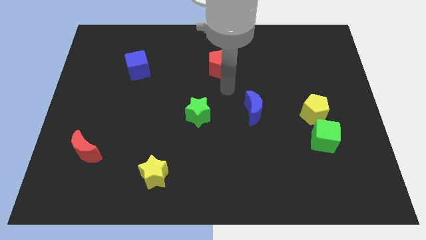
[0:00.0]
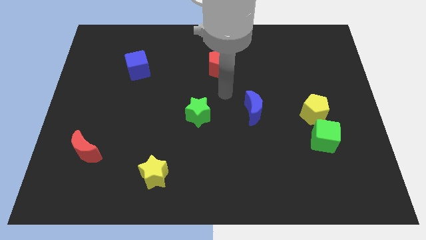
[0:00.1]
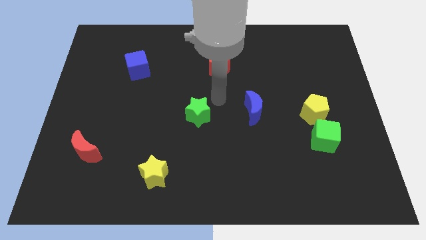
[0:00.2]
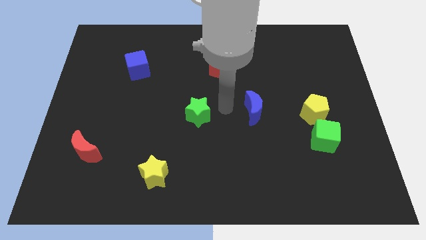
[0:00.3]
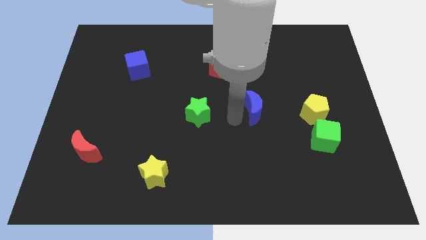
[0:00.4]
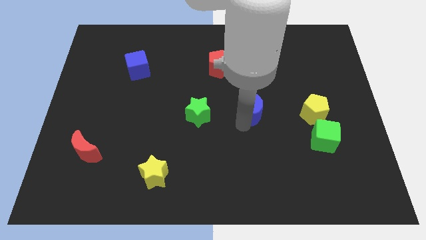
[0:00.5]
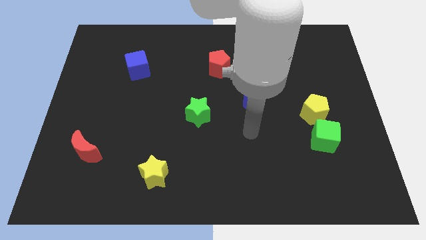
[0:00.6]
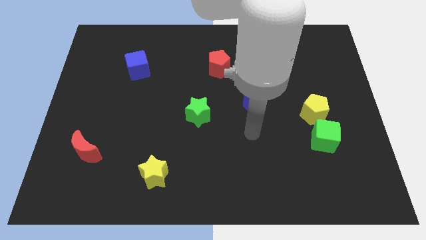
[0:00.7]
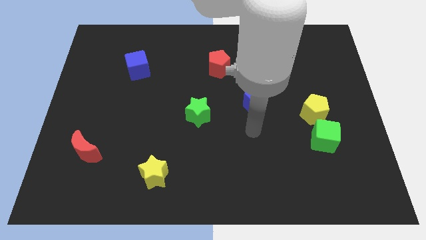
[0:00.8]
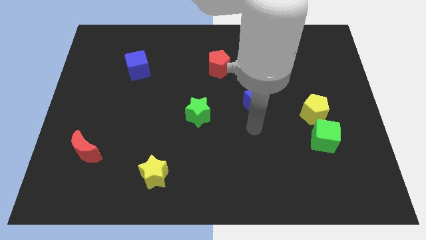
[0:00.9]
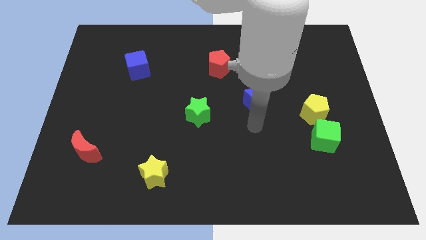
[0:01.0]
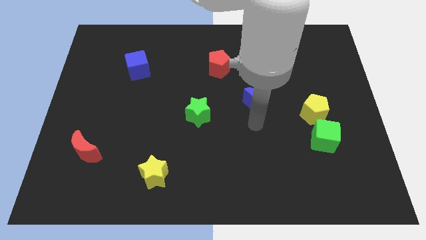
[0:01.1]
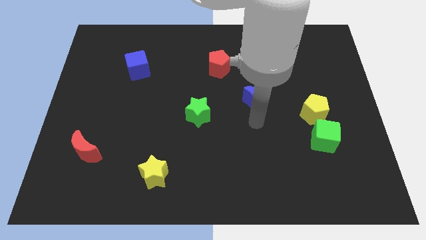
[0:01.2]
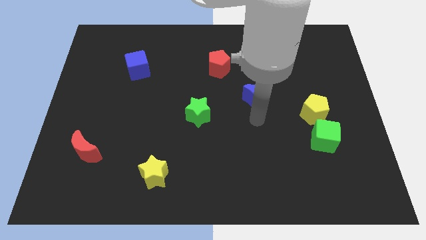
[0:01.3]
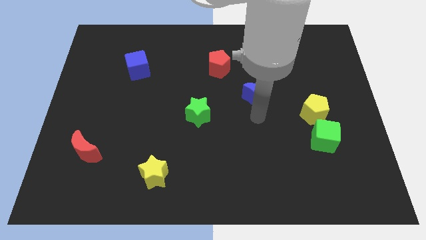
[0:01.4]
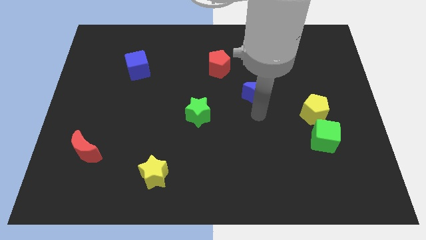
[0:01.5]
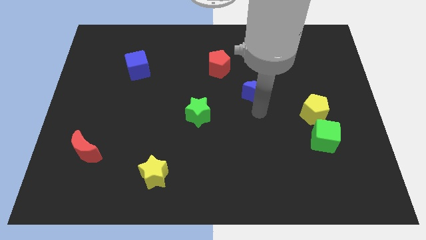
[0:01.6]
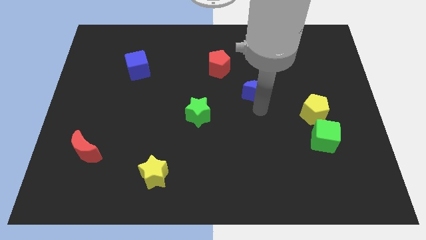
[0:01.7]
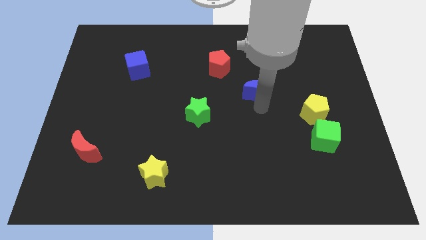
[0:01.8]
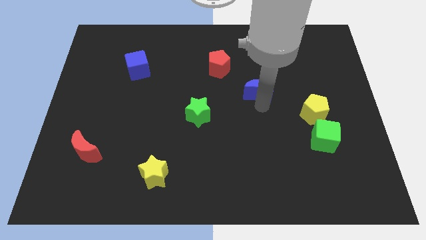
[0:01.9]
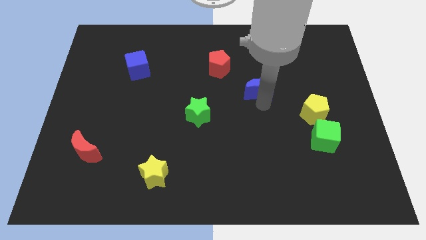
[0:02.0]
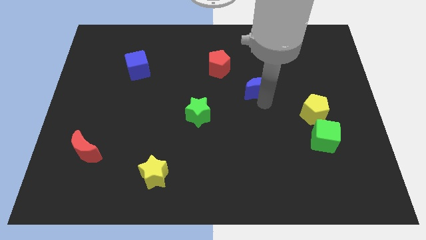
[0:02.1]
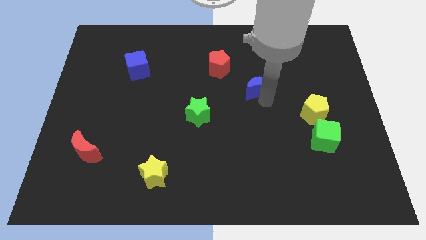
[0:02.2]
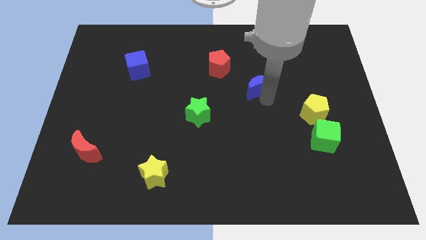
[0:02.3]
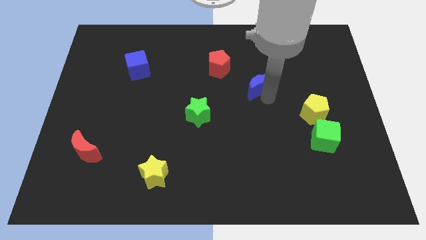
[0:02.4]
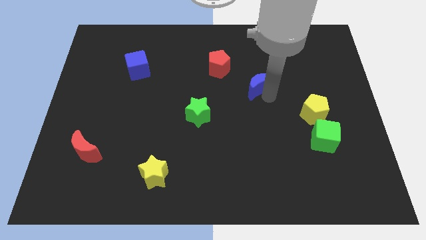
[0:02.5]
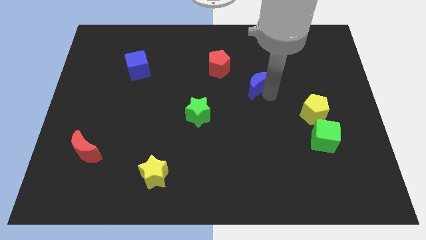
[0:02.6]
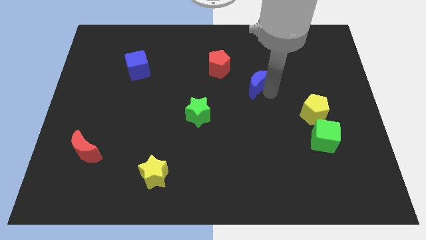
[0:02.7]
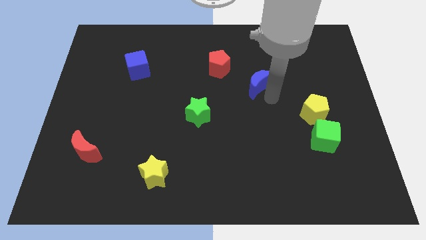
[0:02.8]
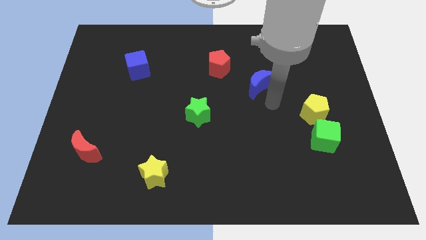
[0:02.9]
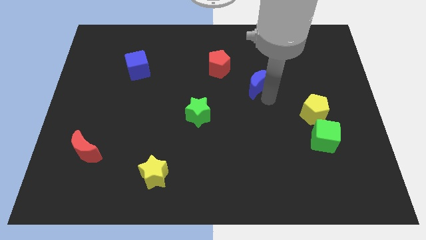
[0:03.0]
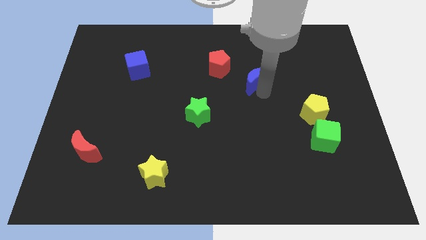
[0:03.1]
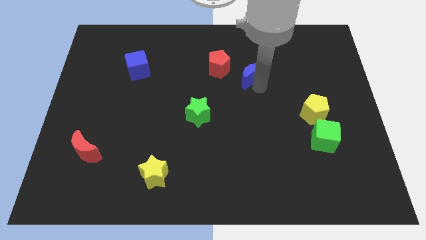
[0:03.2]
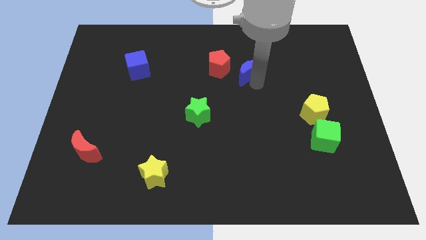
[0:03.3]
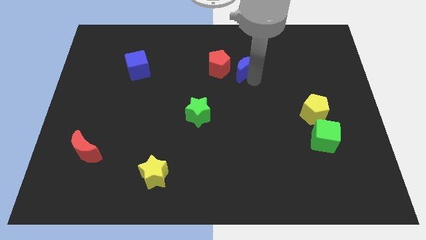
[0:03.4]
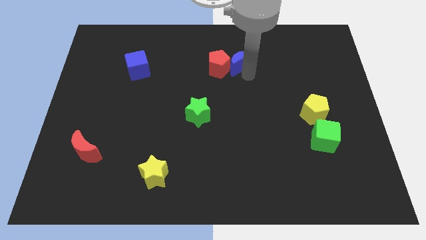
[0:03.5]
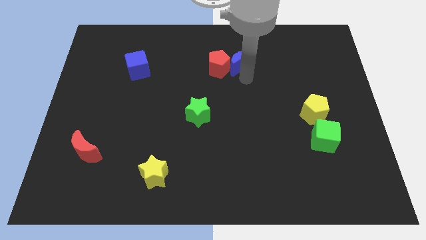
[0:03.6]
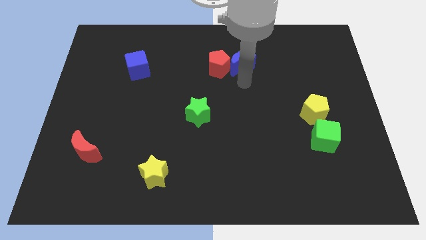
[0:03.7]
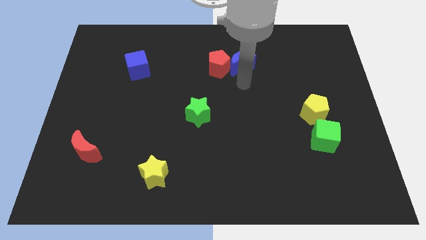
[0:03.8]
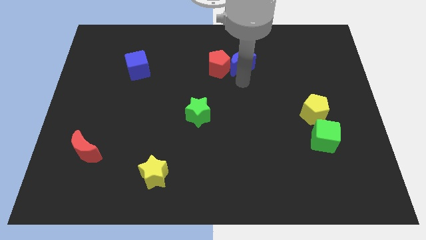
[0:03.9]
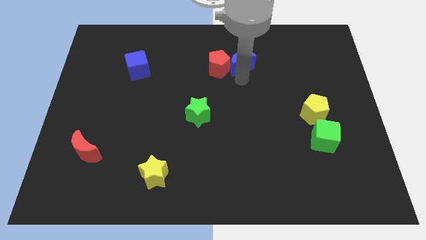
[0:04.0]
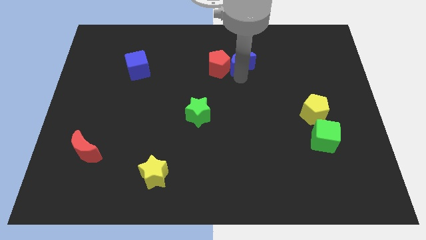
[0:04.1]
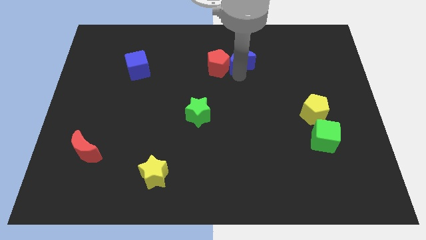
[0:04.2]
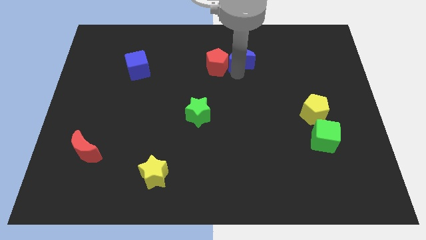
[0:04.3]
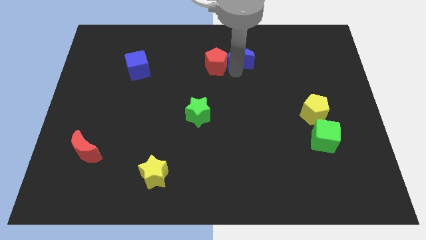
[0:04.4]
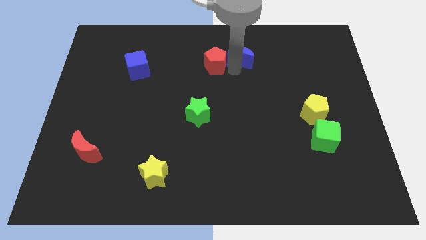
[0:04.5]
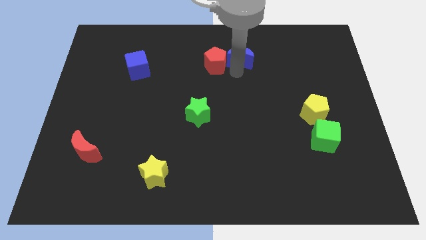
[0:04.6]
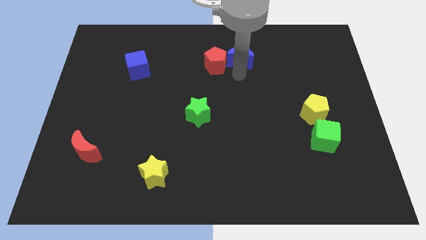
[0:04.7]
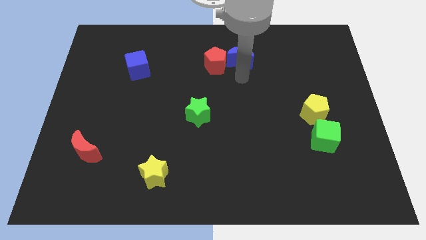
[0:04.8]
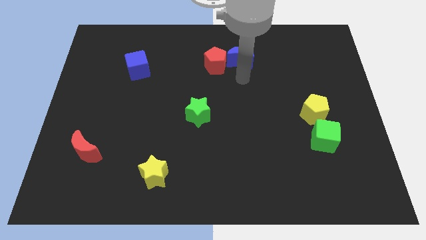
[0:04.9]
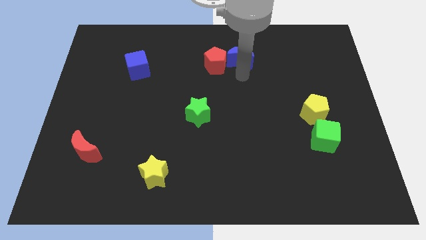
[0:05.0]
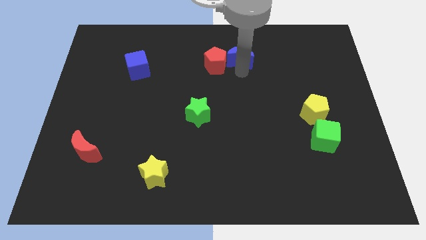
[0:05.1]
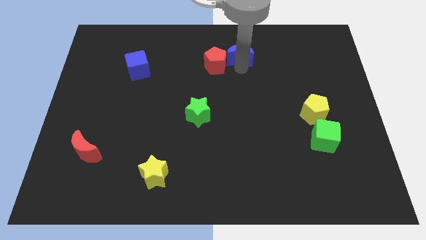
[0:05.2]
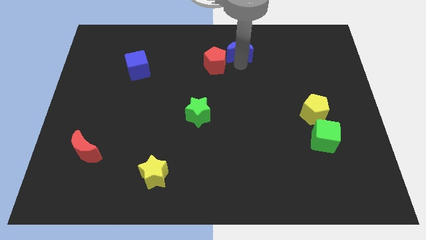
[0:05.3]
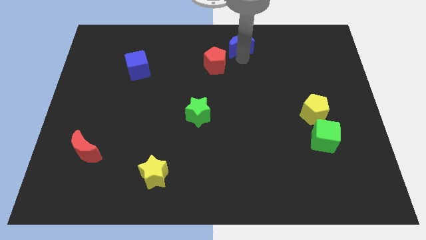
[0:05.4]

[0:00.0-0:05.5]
slide the blue moon to the top
